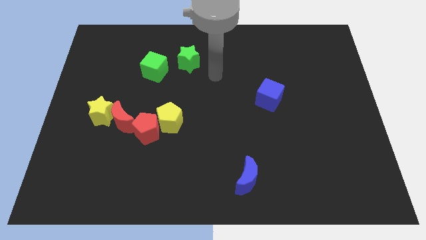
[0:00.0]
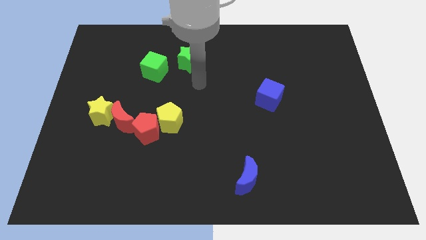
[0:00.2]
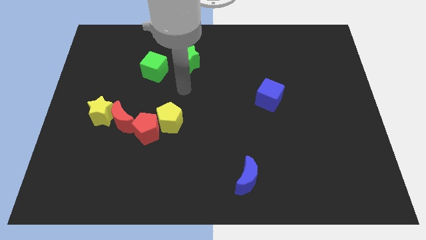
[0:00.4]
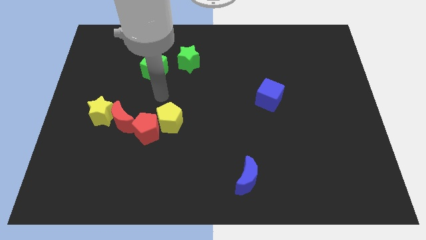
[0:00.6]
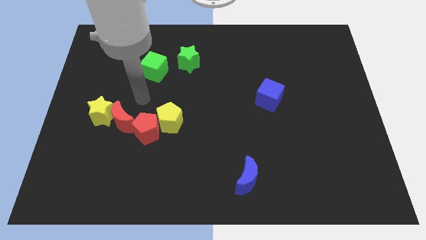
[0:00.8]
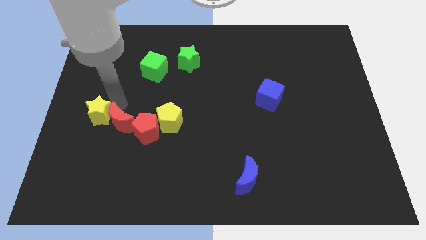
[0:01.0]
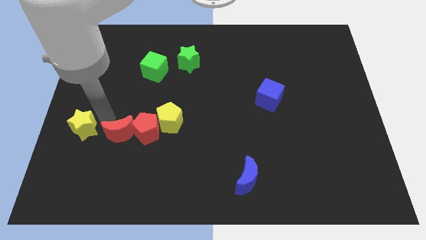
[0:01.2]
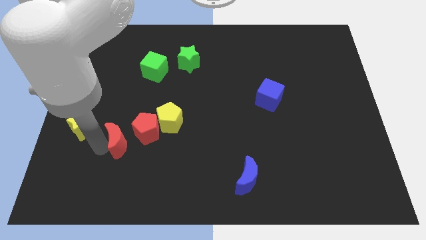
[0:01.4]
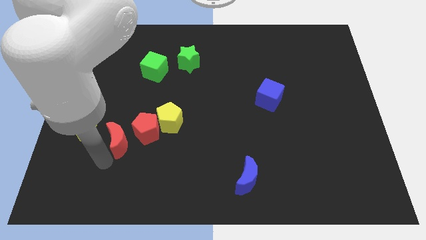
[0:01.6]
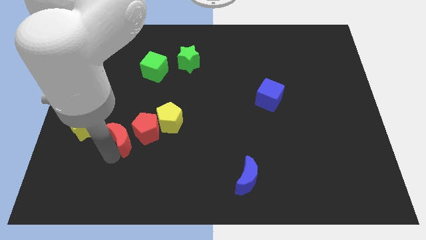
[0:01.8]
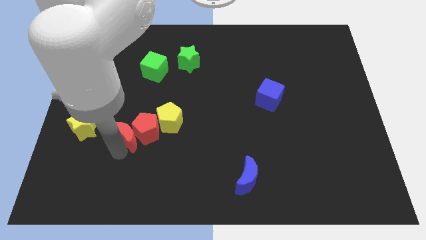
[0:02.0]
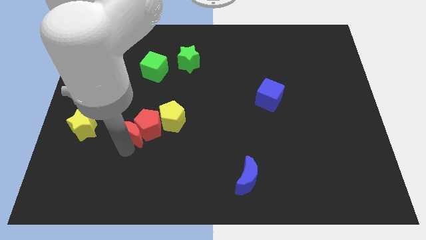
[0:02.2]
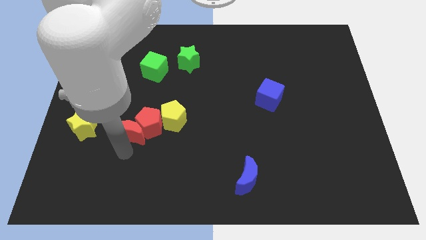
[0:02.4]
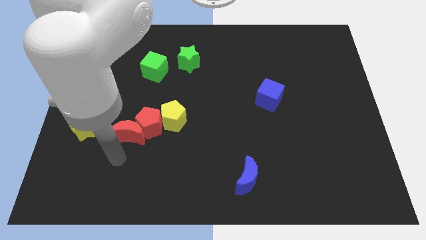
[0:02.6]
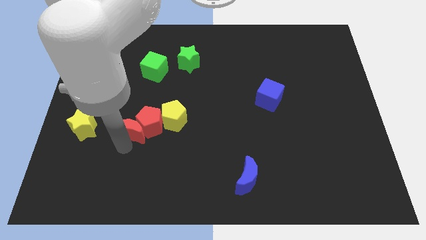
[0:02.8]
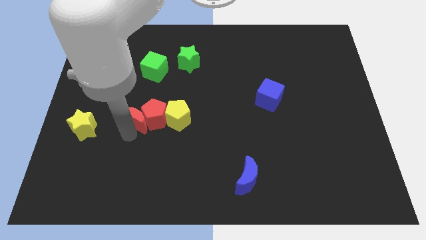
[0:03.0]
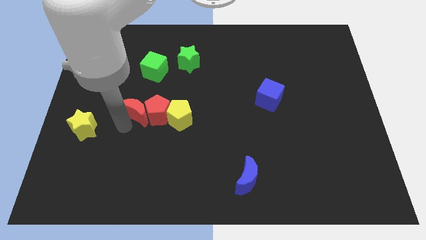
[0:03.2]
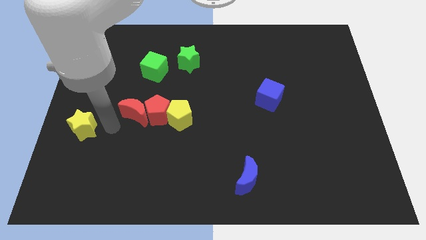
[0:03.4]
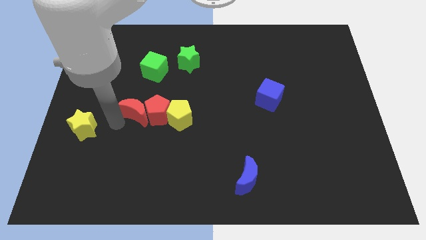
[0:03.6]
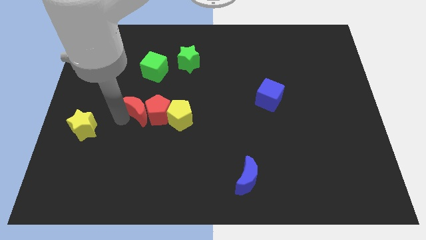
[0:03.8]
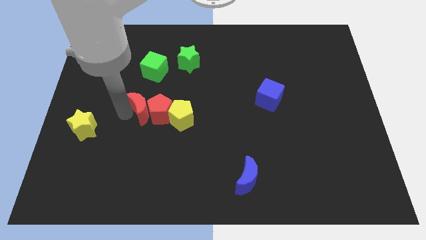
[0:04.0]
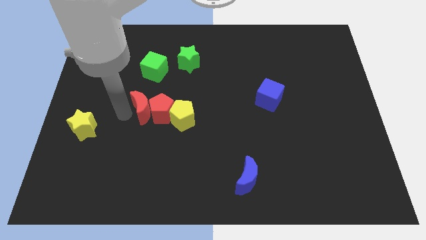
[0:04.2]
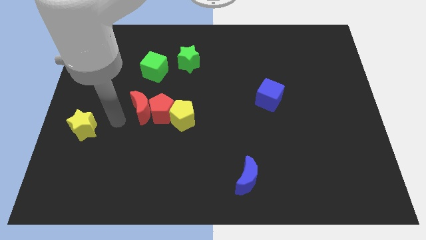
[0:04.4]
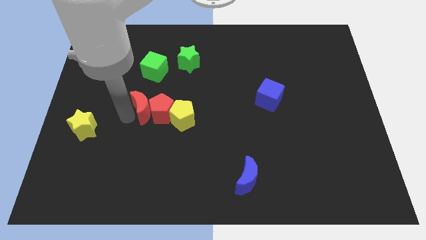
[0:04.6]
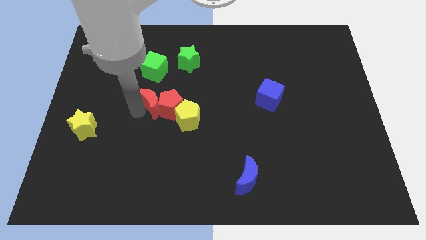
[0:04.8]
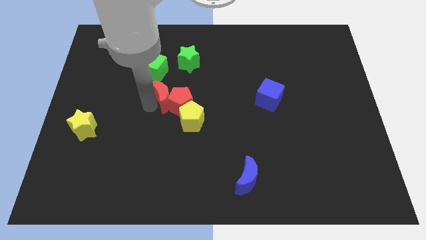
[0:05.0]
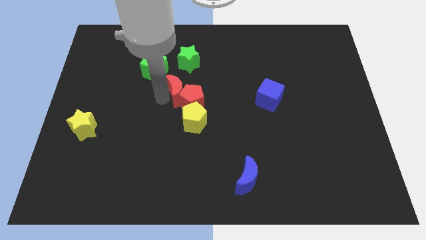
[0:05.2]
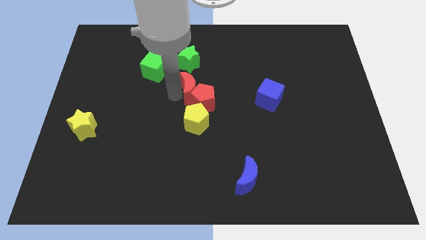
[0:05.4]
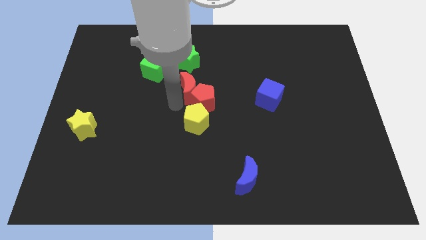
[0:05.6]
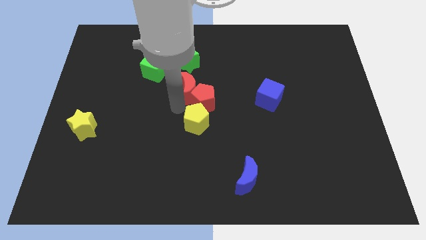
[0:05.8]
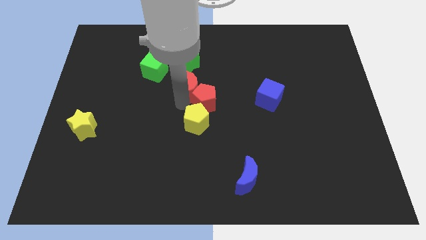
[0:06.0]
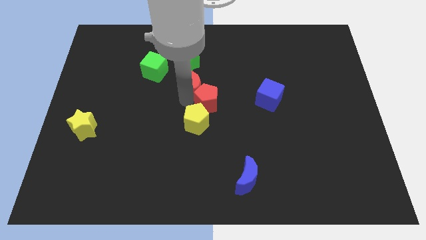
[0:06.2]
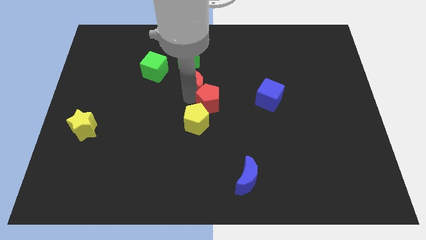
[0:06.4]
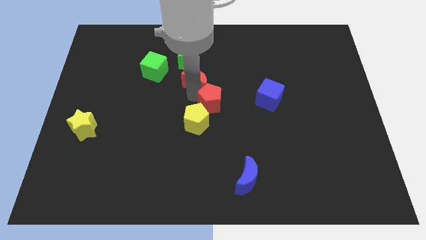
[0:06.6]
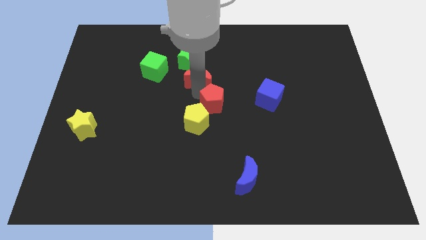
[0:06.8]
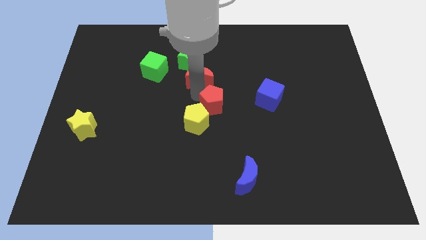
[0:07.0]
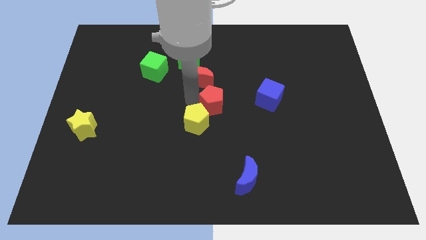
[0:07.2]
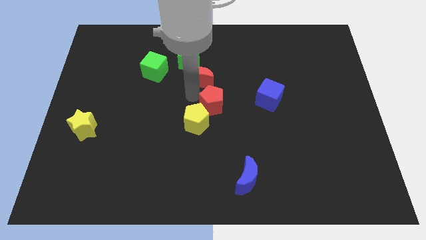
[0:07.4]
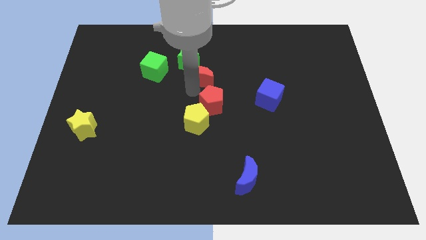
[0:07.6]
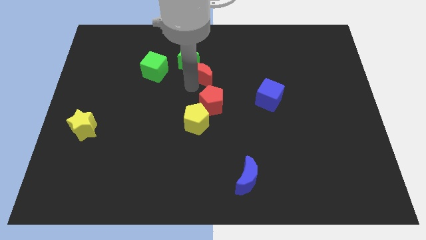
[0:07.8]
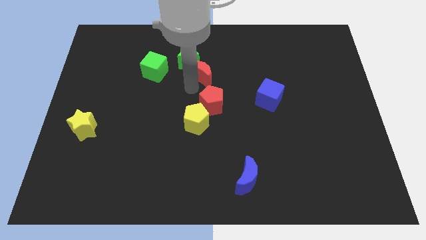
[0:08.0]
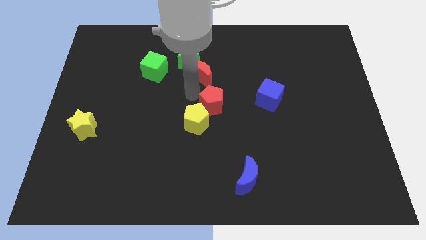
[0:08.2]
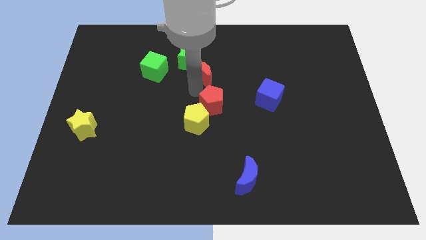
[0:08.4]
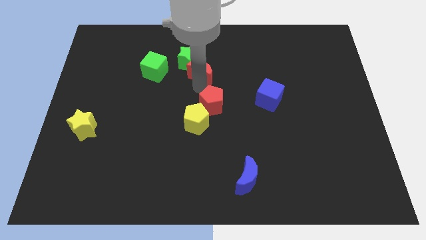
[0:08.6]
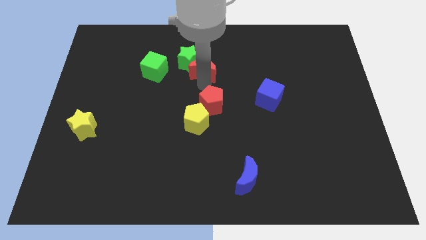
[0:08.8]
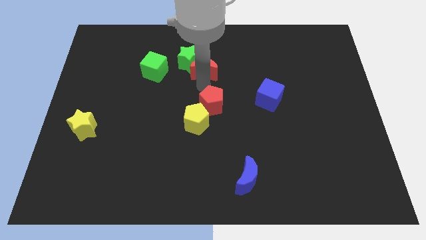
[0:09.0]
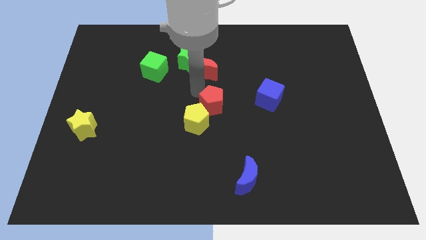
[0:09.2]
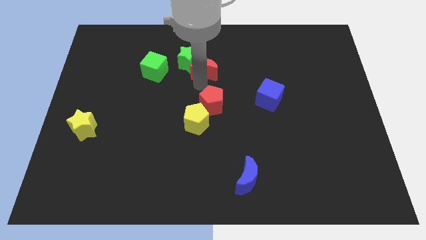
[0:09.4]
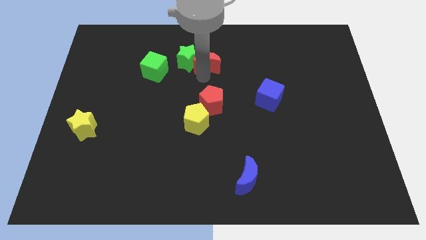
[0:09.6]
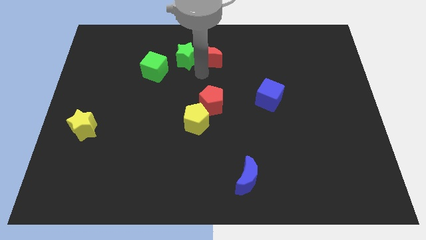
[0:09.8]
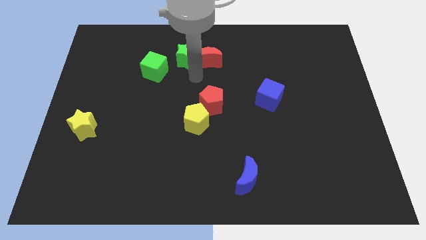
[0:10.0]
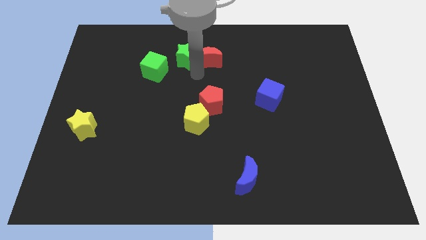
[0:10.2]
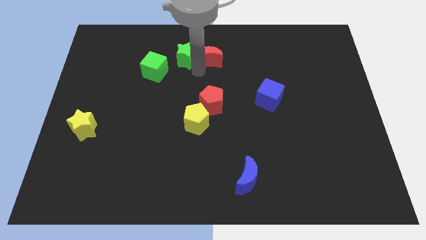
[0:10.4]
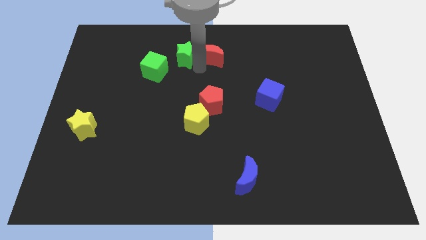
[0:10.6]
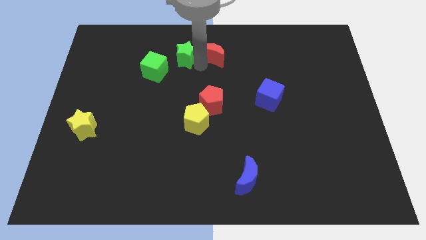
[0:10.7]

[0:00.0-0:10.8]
move the red moon to the towards your base

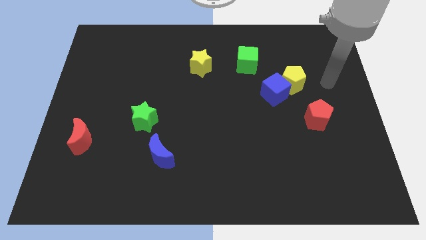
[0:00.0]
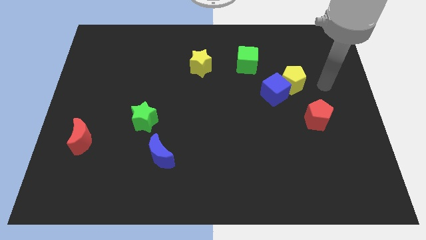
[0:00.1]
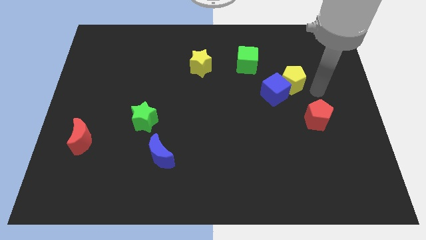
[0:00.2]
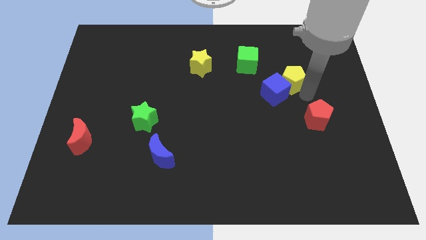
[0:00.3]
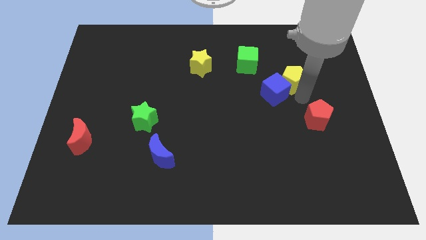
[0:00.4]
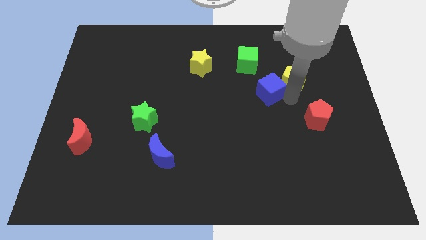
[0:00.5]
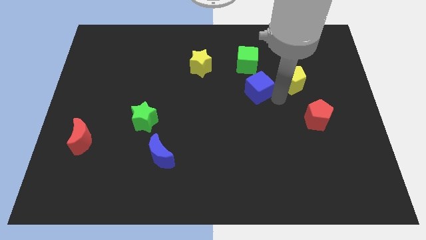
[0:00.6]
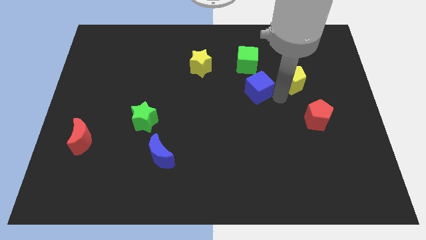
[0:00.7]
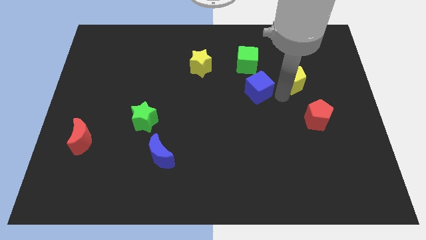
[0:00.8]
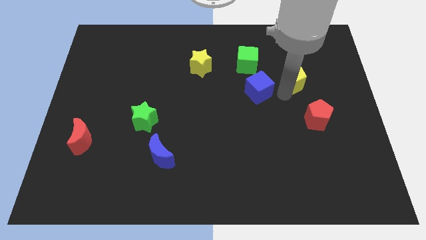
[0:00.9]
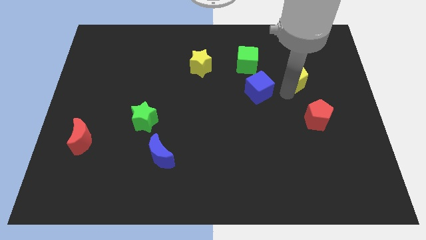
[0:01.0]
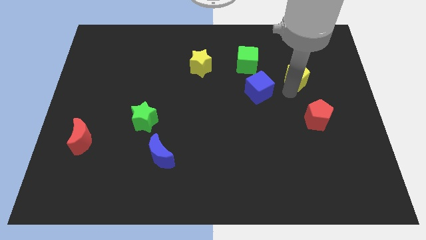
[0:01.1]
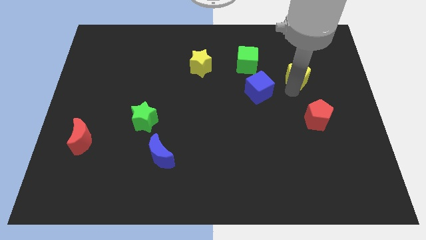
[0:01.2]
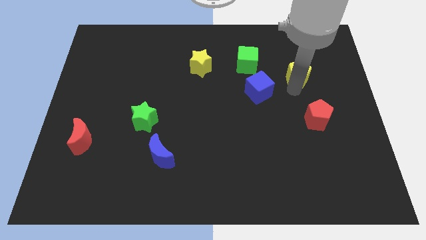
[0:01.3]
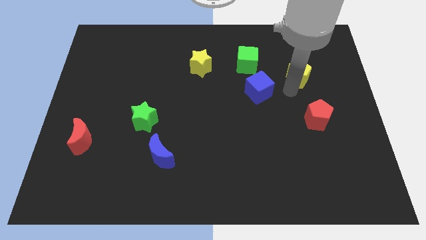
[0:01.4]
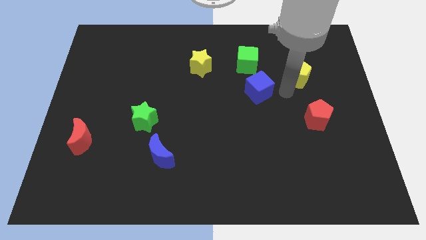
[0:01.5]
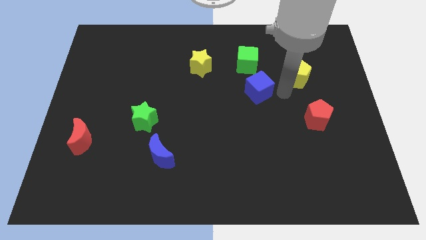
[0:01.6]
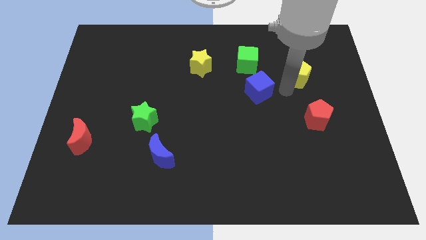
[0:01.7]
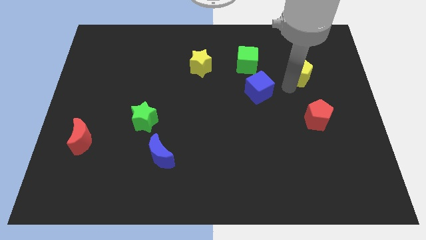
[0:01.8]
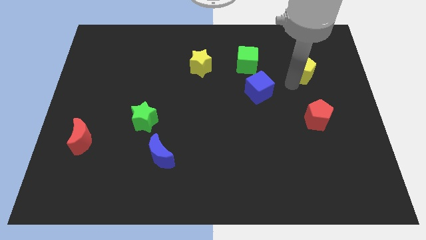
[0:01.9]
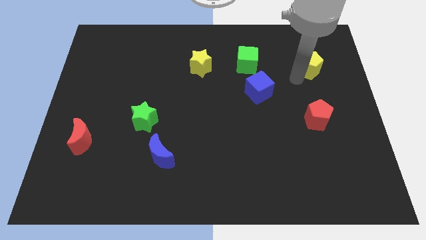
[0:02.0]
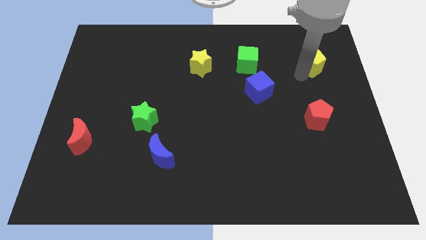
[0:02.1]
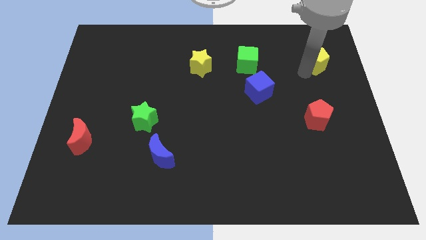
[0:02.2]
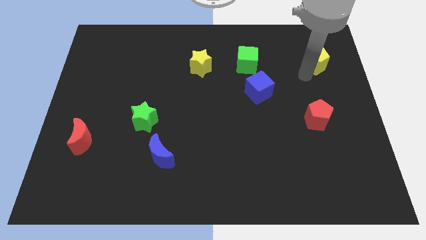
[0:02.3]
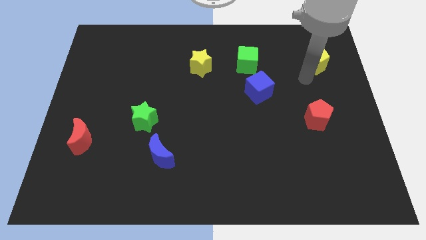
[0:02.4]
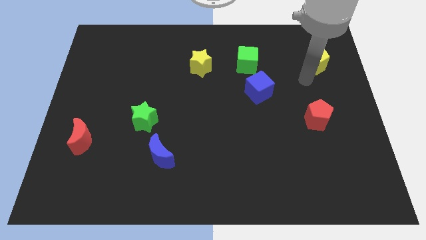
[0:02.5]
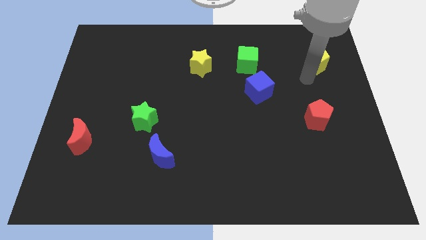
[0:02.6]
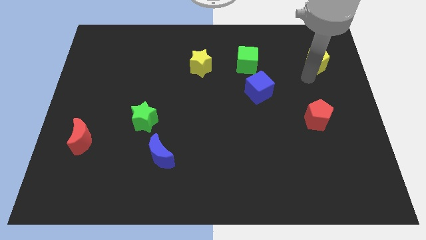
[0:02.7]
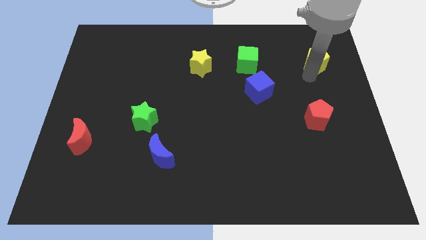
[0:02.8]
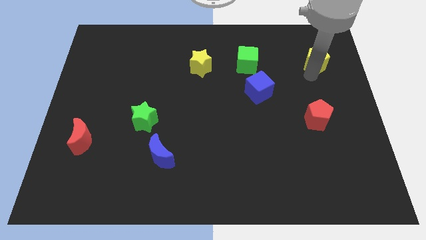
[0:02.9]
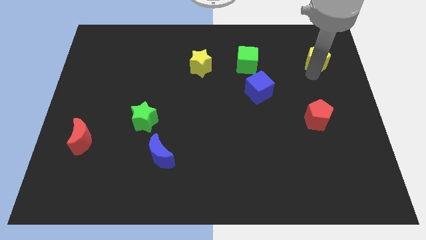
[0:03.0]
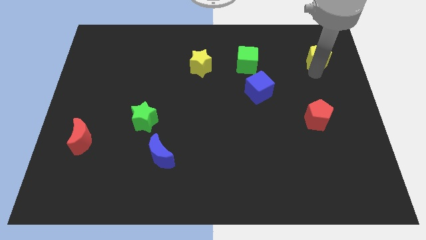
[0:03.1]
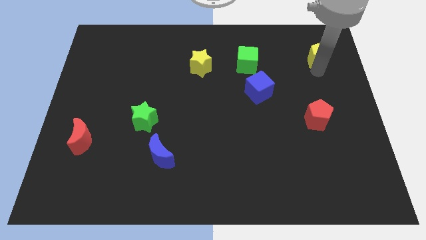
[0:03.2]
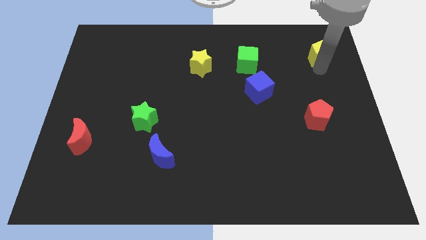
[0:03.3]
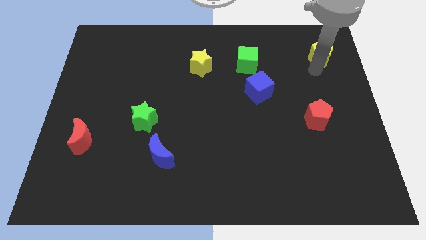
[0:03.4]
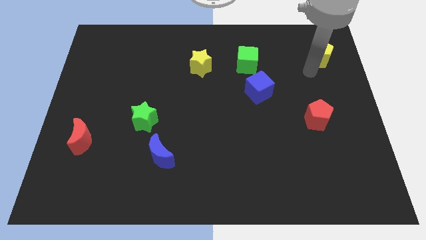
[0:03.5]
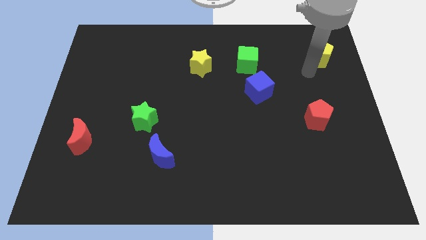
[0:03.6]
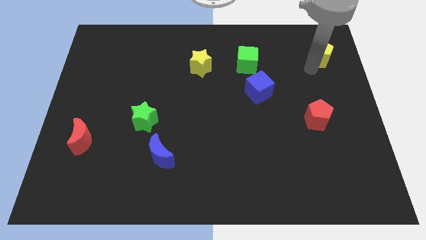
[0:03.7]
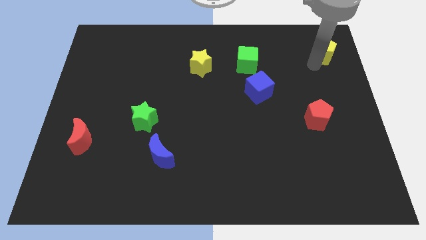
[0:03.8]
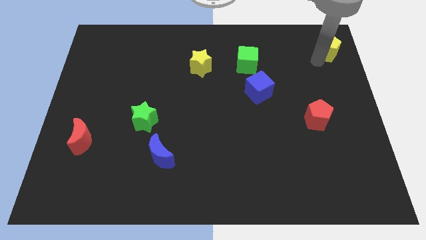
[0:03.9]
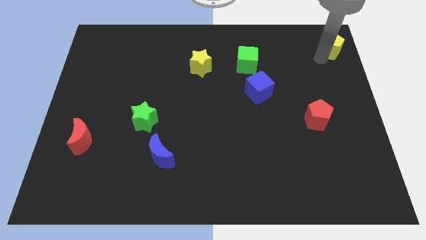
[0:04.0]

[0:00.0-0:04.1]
push the yellow pentagon to the top right of the board
